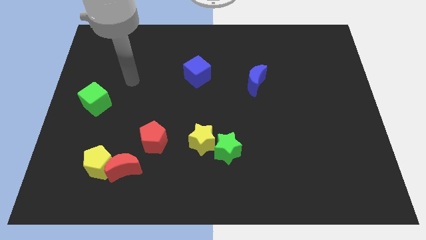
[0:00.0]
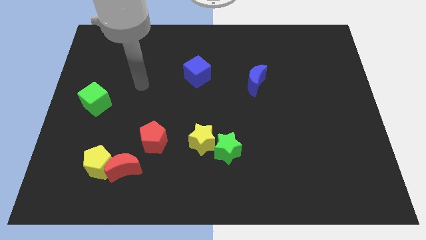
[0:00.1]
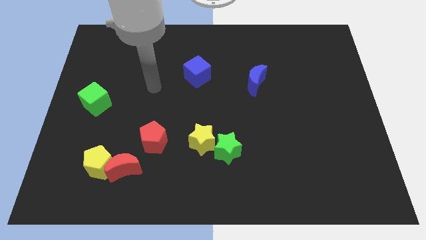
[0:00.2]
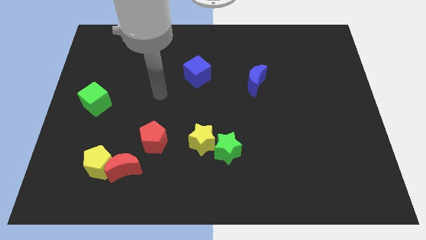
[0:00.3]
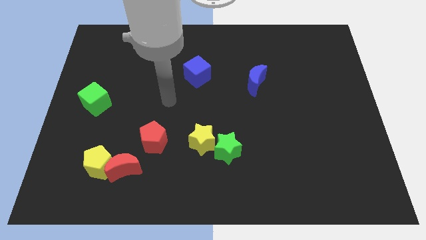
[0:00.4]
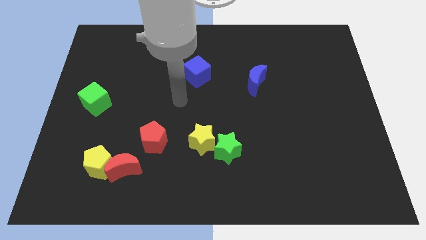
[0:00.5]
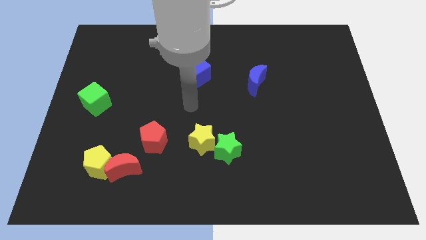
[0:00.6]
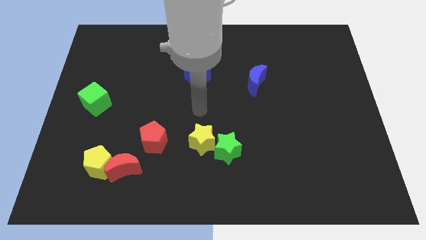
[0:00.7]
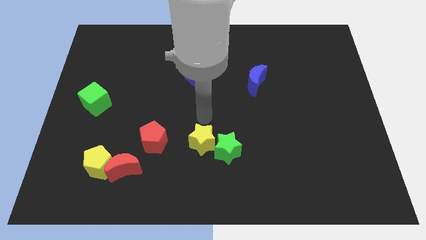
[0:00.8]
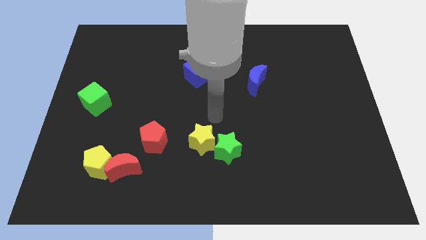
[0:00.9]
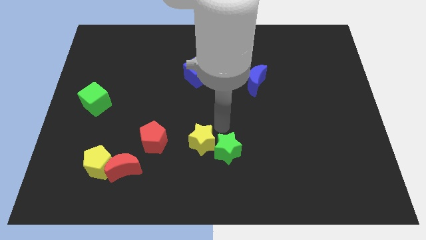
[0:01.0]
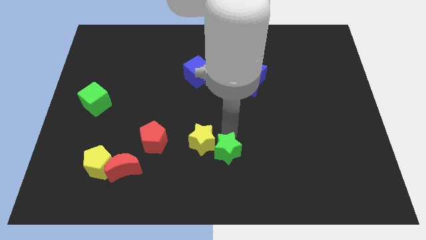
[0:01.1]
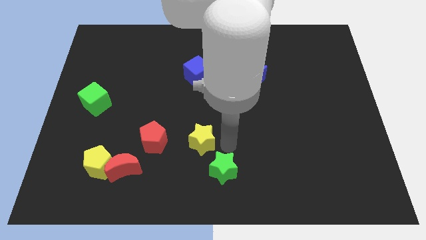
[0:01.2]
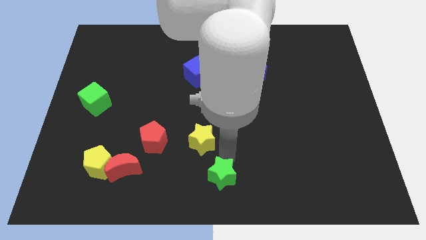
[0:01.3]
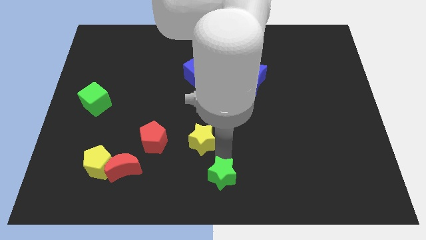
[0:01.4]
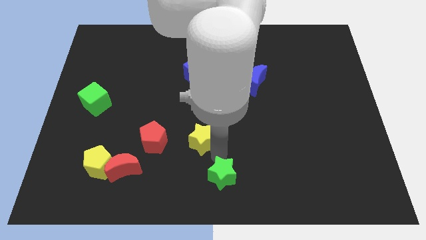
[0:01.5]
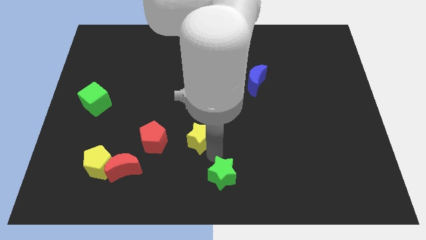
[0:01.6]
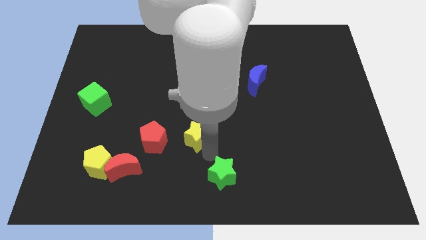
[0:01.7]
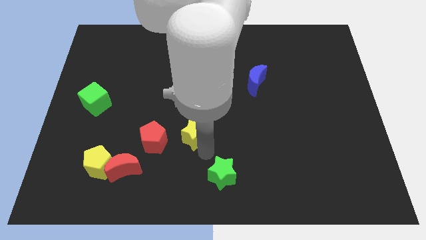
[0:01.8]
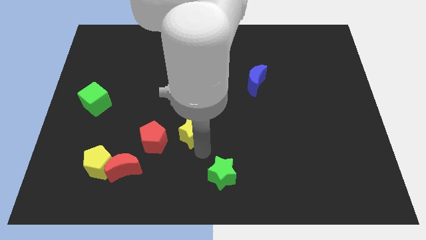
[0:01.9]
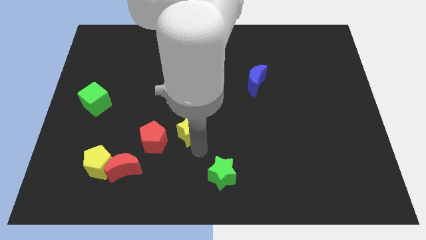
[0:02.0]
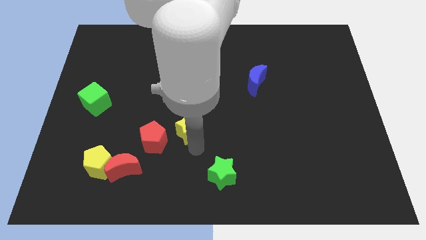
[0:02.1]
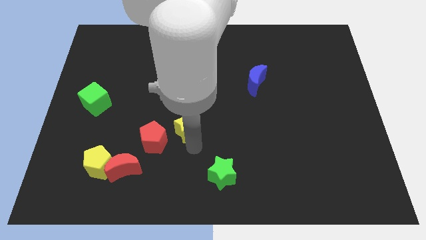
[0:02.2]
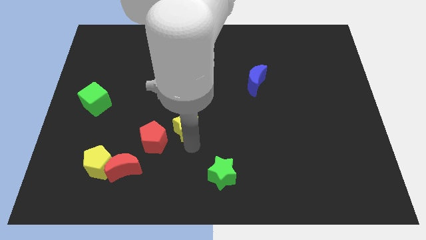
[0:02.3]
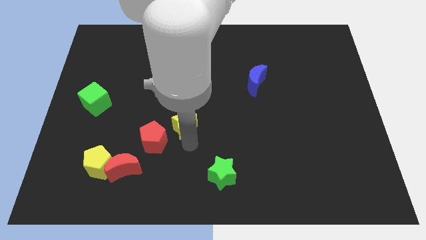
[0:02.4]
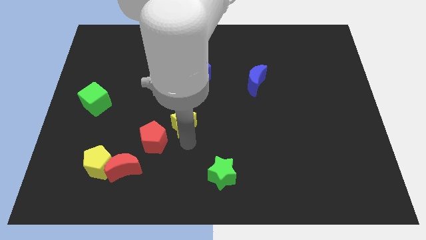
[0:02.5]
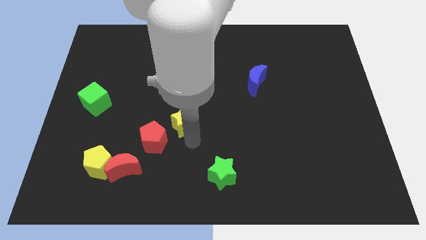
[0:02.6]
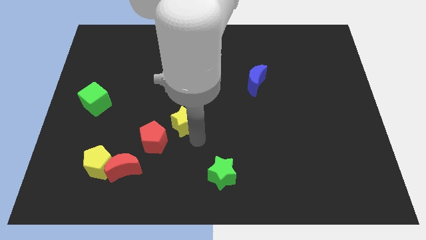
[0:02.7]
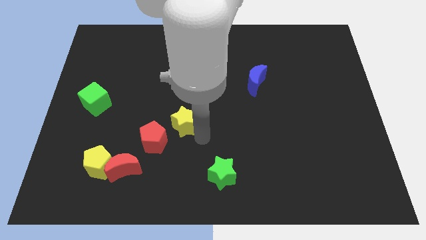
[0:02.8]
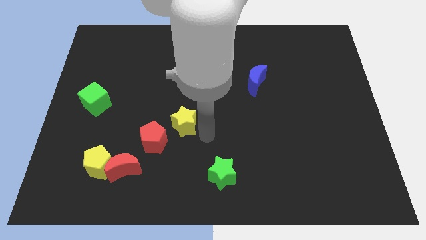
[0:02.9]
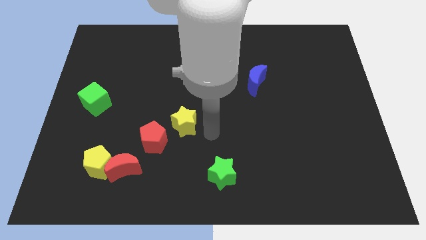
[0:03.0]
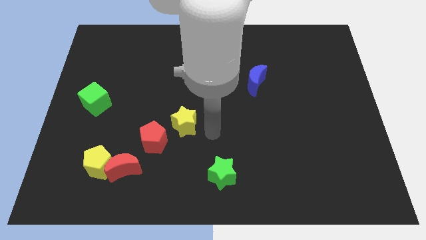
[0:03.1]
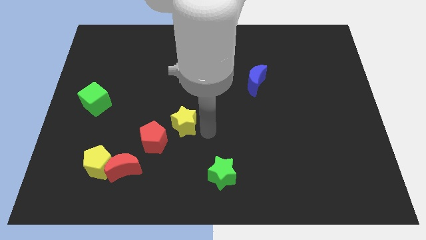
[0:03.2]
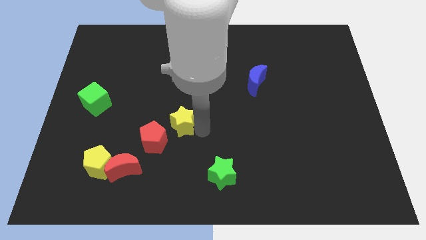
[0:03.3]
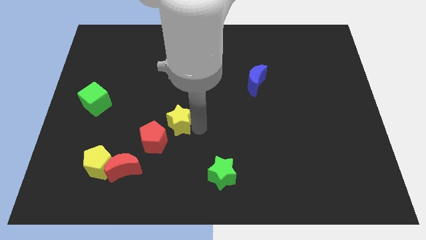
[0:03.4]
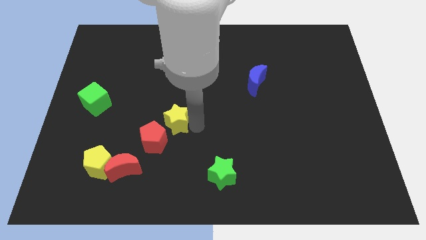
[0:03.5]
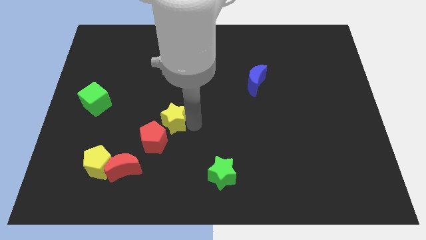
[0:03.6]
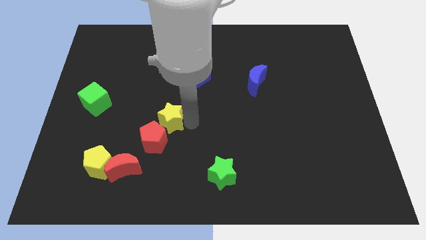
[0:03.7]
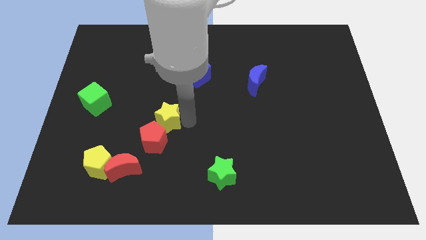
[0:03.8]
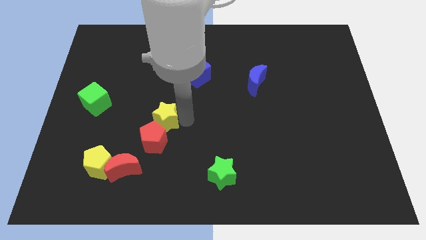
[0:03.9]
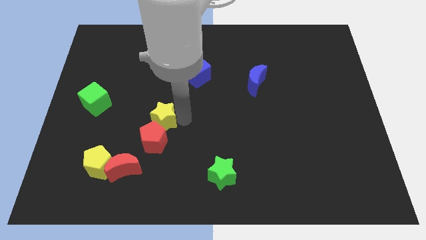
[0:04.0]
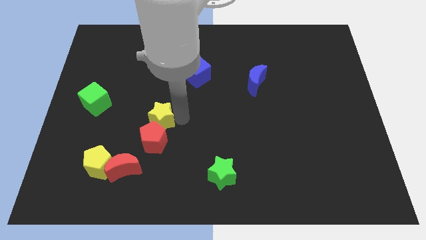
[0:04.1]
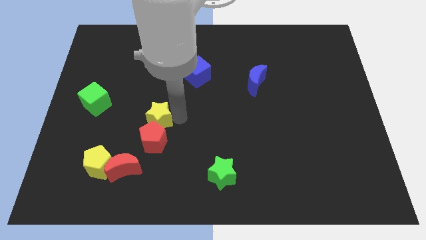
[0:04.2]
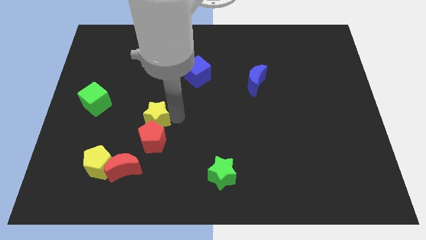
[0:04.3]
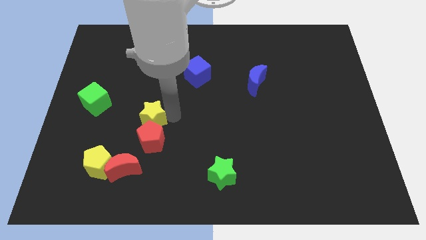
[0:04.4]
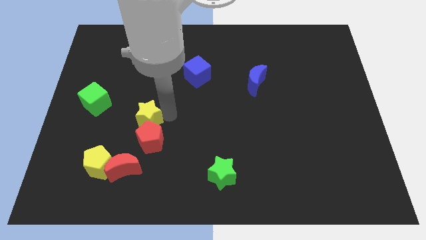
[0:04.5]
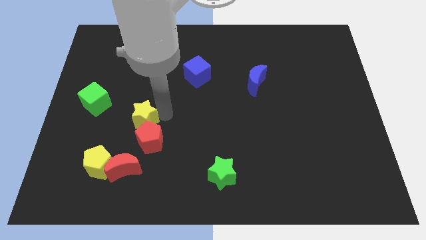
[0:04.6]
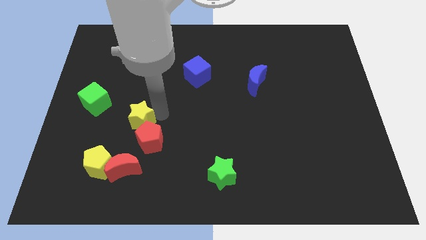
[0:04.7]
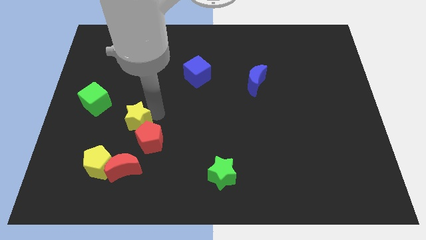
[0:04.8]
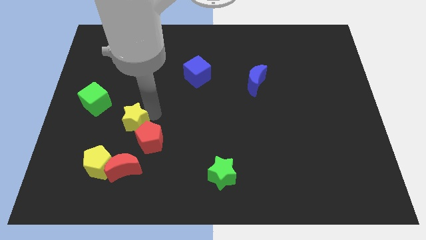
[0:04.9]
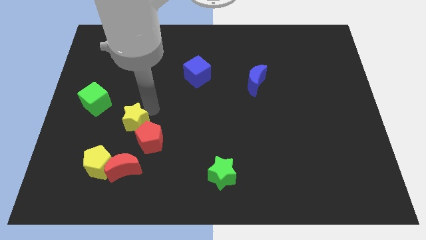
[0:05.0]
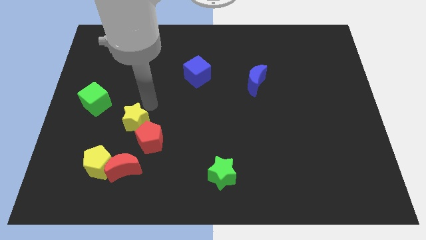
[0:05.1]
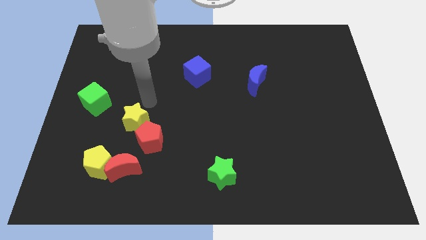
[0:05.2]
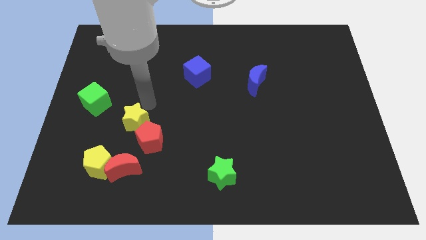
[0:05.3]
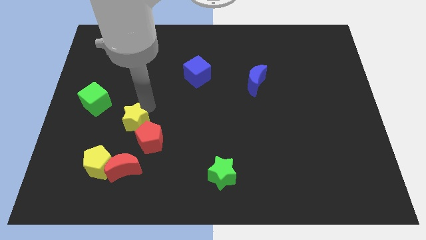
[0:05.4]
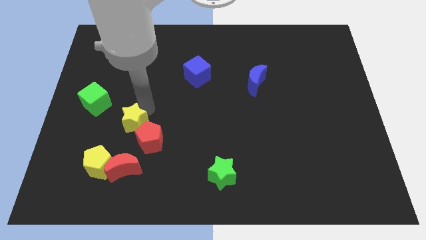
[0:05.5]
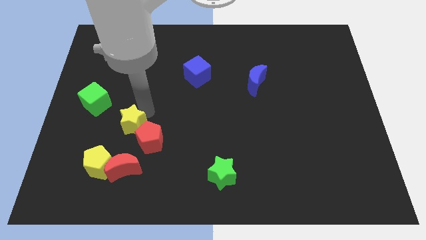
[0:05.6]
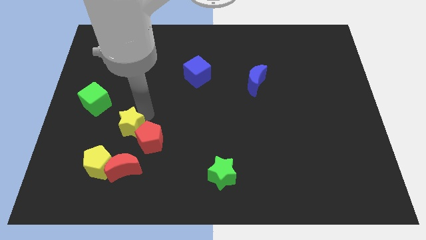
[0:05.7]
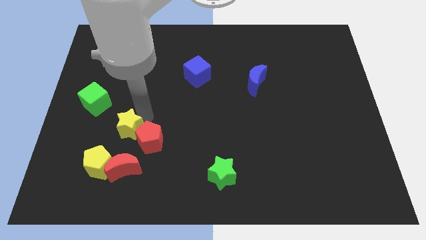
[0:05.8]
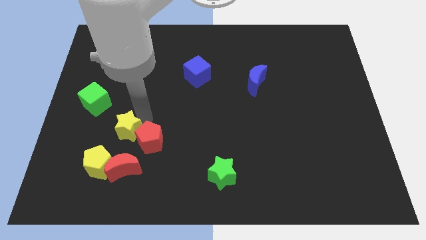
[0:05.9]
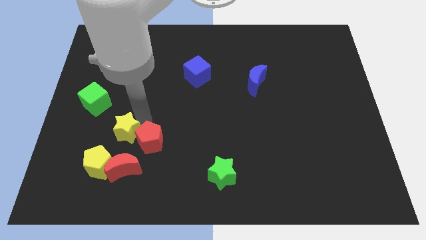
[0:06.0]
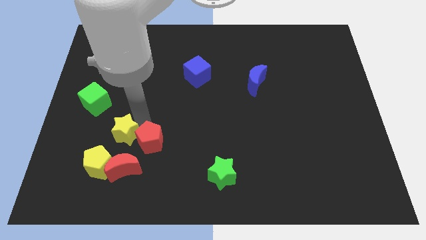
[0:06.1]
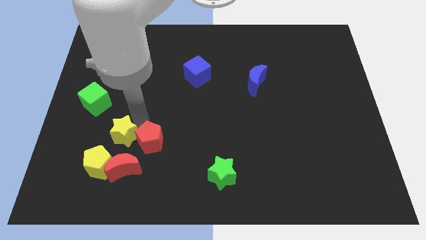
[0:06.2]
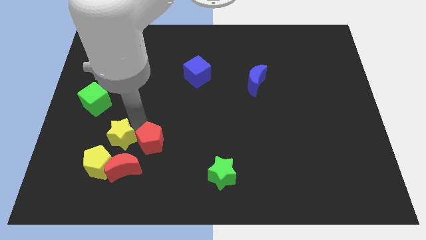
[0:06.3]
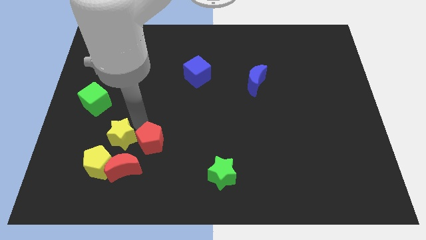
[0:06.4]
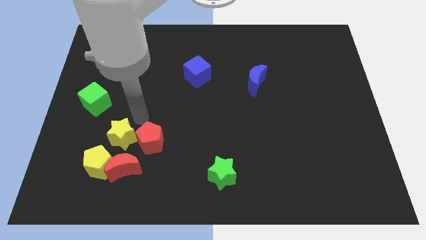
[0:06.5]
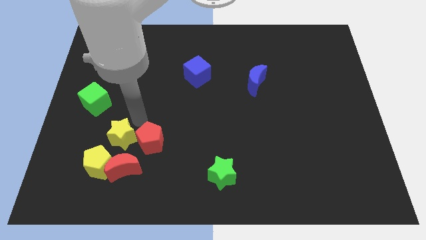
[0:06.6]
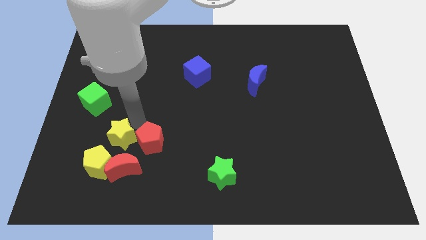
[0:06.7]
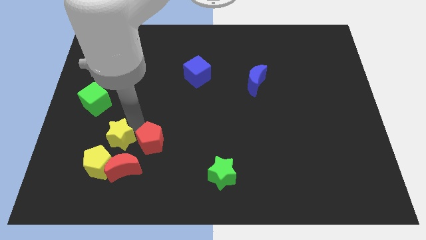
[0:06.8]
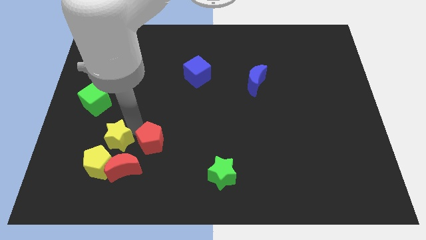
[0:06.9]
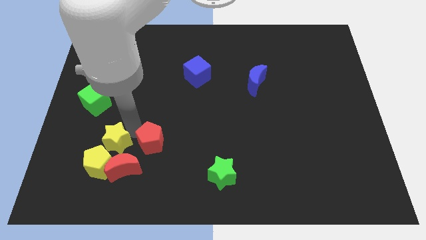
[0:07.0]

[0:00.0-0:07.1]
put the yellow star to the yellow pentagon

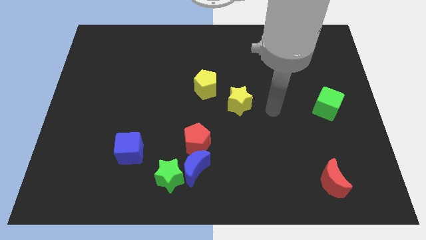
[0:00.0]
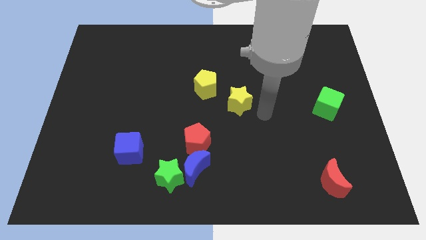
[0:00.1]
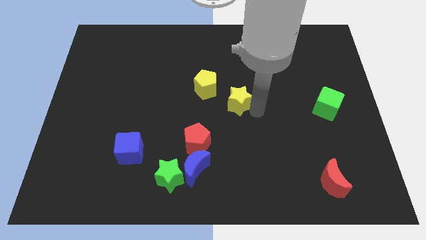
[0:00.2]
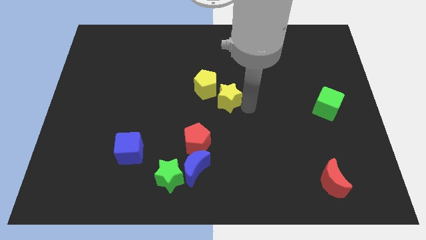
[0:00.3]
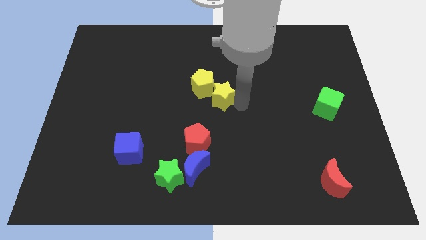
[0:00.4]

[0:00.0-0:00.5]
slide the yellow star next to the yellow pentagon
